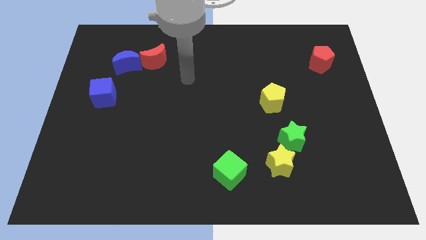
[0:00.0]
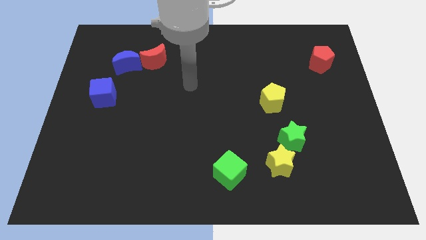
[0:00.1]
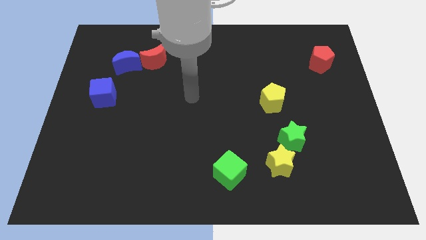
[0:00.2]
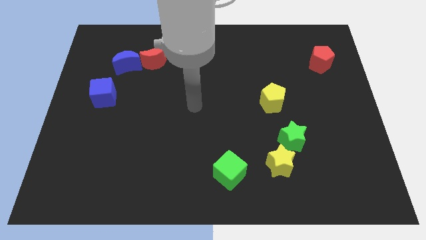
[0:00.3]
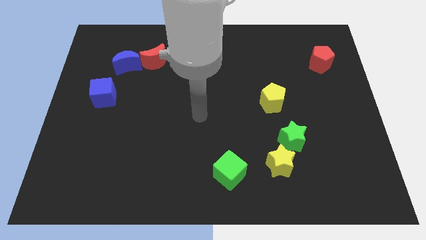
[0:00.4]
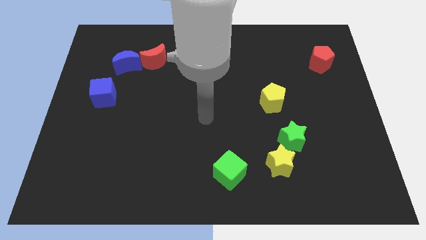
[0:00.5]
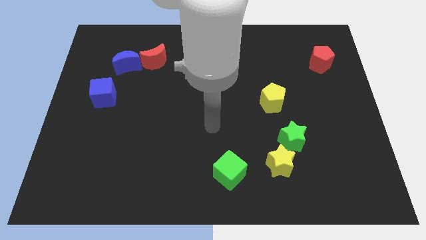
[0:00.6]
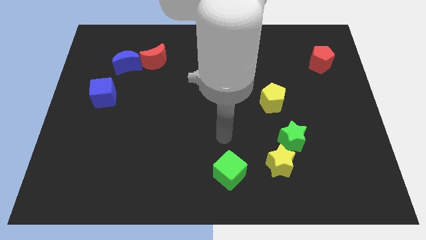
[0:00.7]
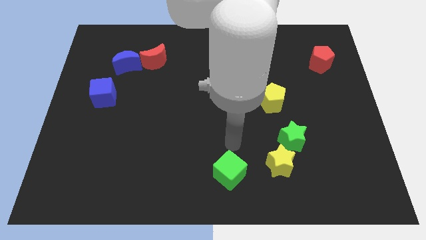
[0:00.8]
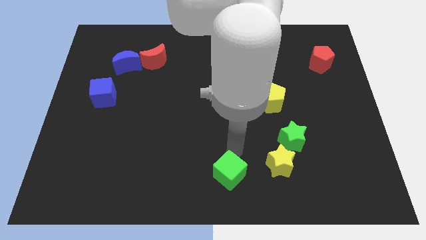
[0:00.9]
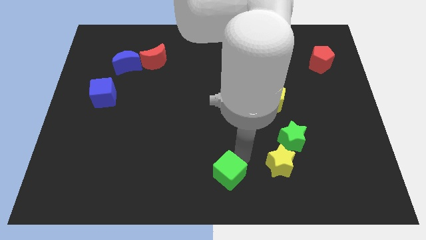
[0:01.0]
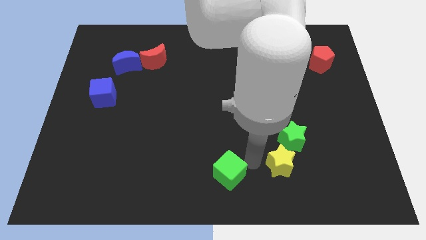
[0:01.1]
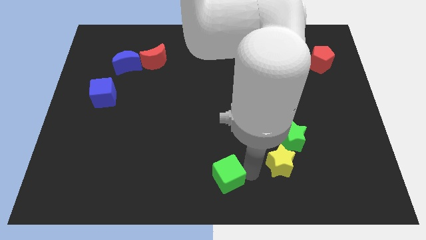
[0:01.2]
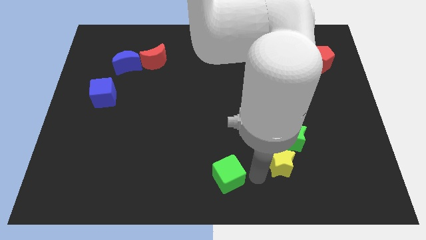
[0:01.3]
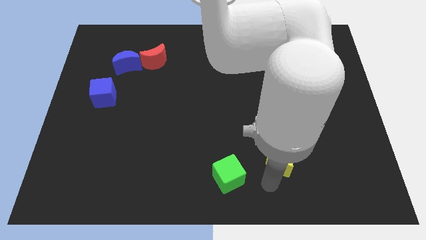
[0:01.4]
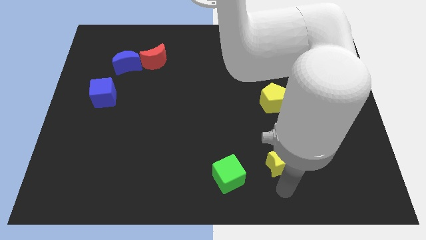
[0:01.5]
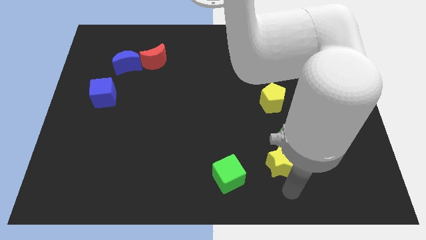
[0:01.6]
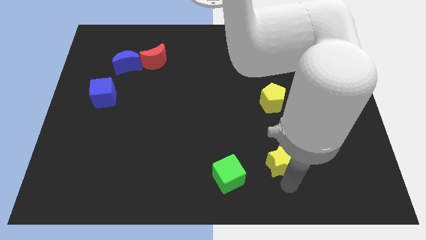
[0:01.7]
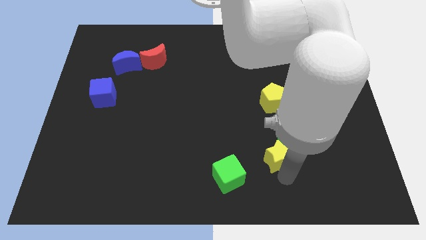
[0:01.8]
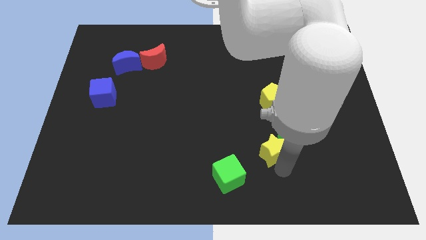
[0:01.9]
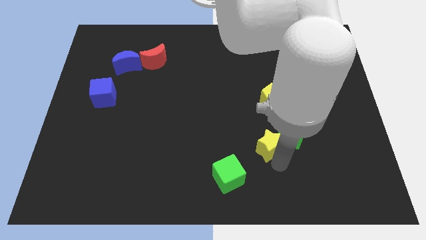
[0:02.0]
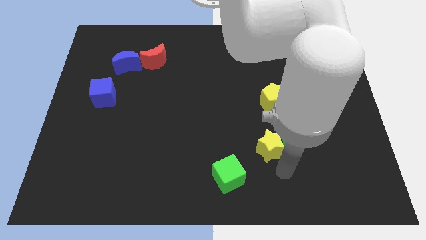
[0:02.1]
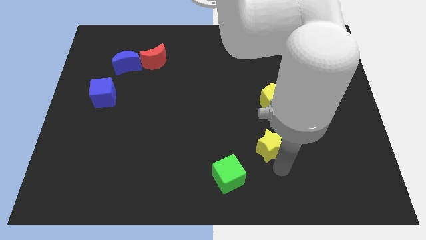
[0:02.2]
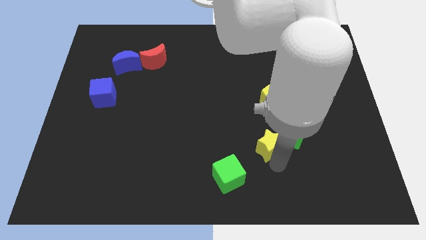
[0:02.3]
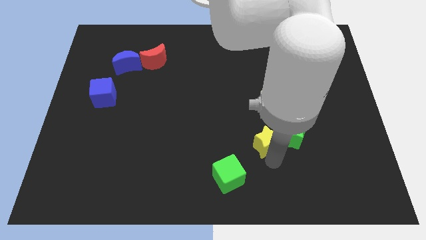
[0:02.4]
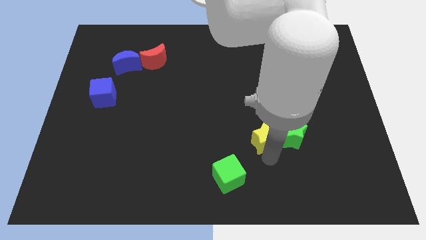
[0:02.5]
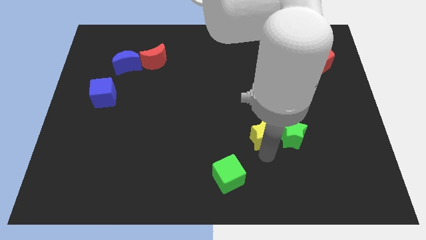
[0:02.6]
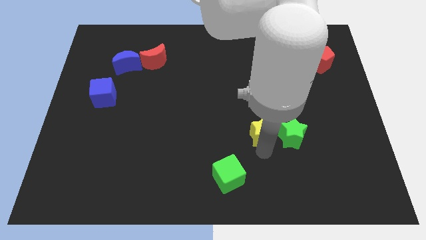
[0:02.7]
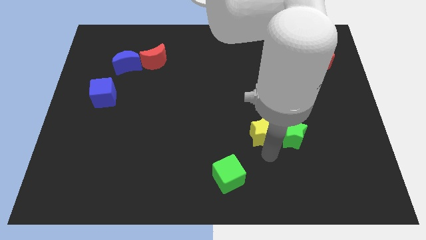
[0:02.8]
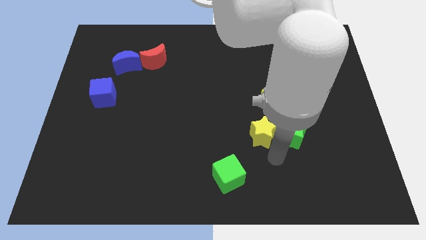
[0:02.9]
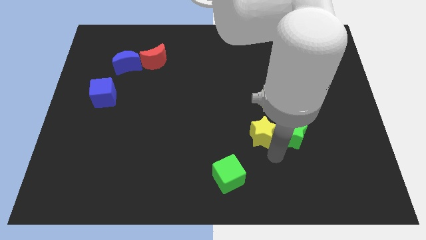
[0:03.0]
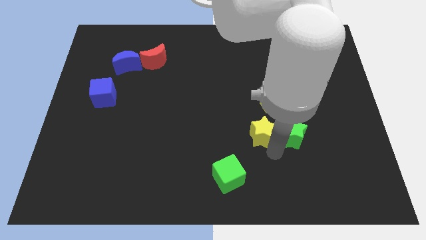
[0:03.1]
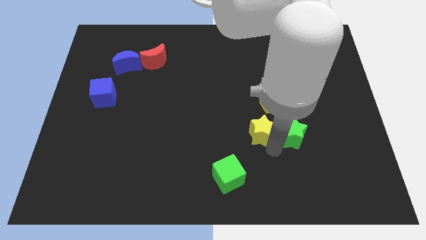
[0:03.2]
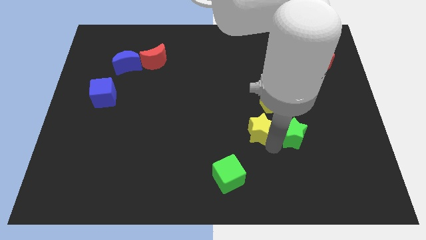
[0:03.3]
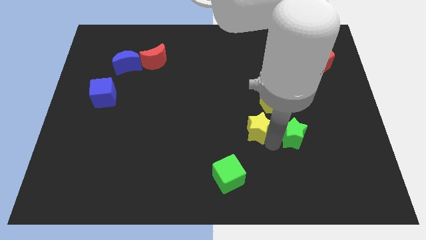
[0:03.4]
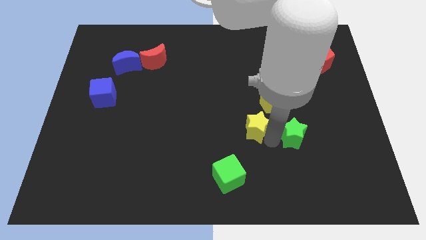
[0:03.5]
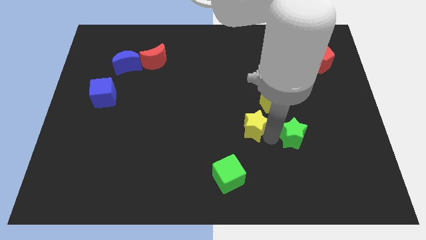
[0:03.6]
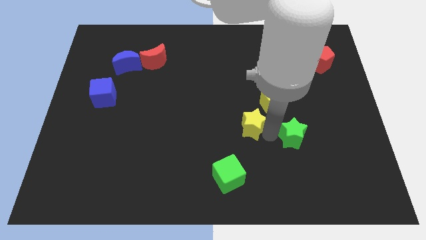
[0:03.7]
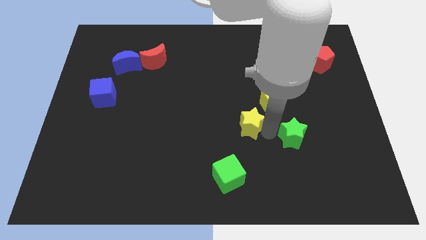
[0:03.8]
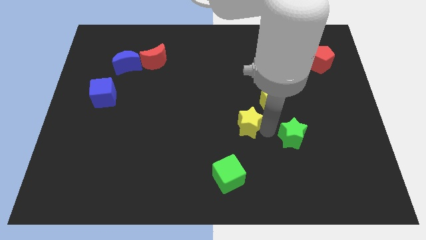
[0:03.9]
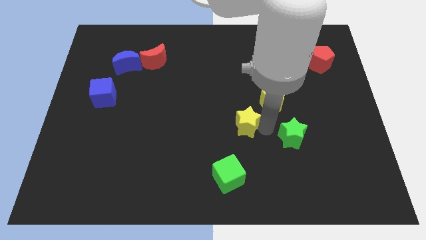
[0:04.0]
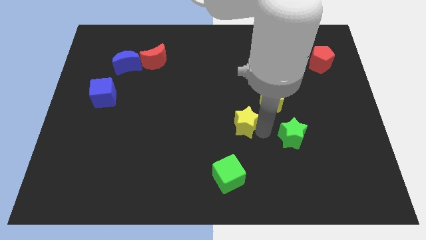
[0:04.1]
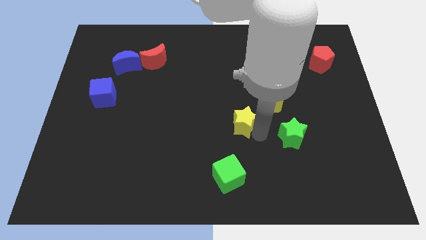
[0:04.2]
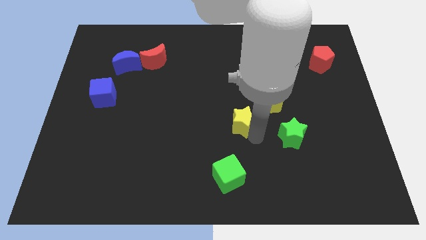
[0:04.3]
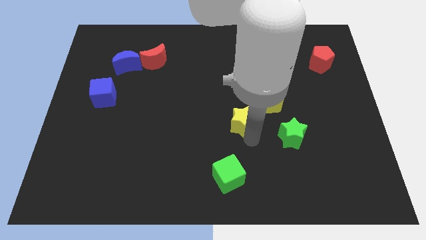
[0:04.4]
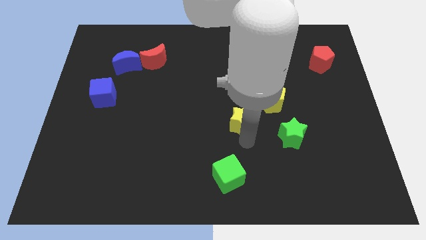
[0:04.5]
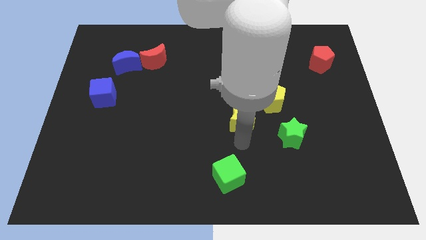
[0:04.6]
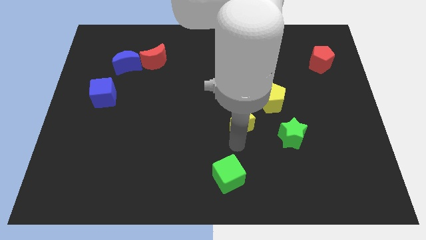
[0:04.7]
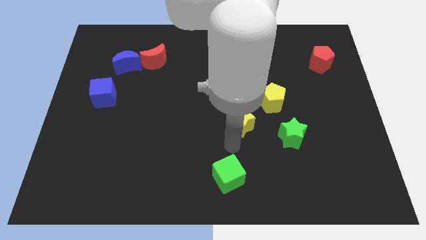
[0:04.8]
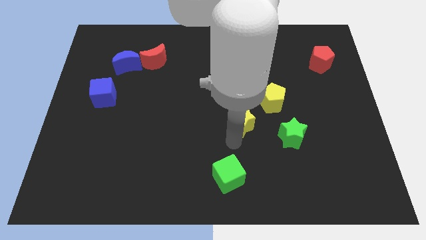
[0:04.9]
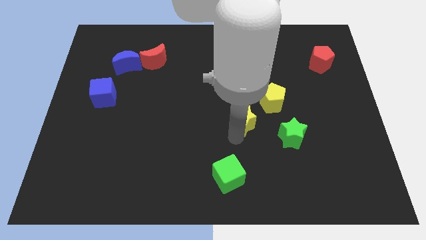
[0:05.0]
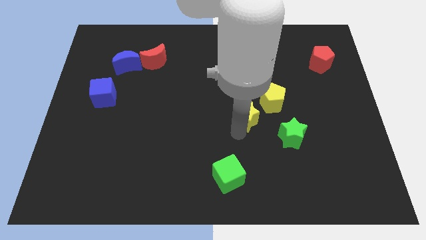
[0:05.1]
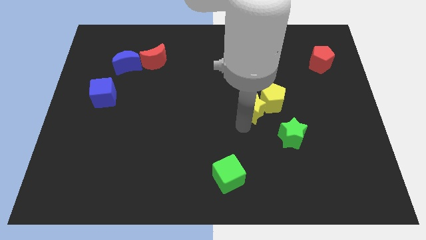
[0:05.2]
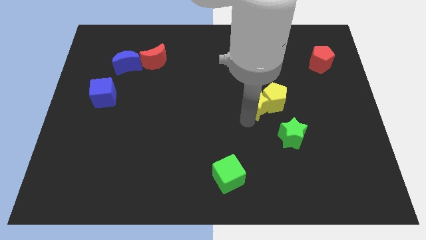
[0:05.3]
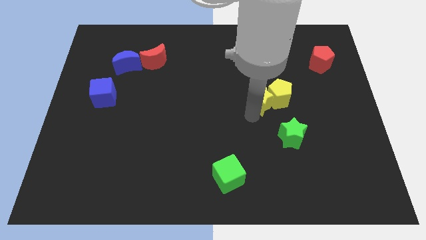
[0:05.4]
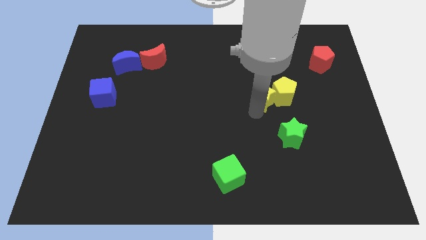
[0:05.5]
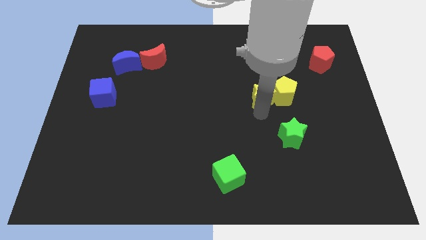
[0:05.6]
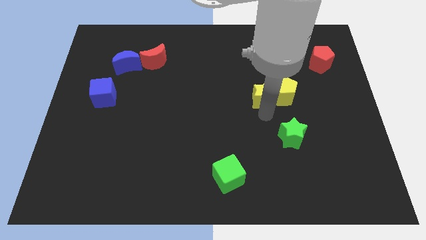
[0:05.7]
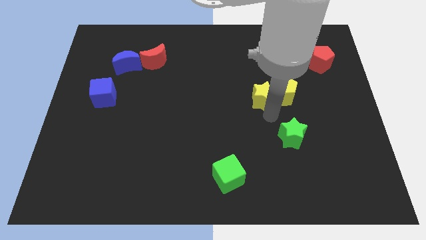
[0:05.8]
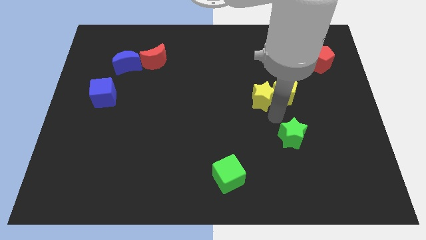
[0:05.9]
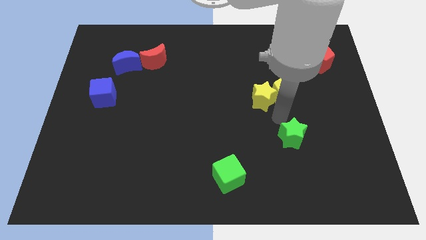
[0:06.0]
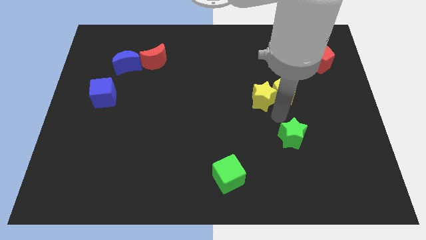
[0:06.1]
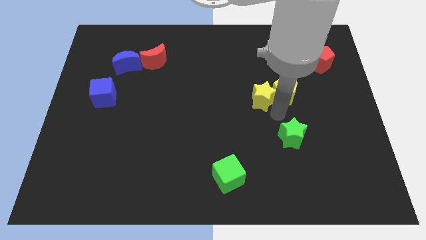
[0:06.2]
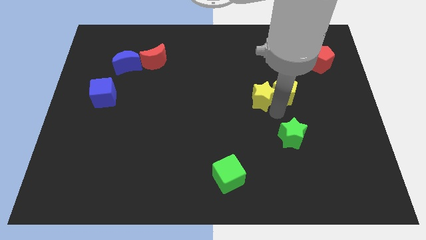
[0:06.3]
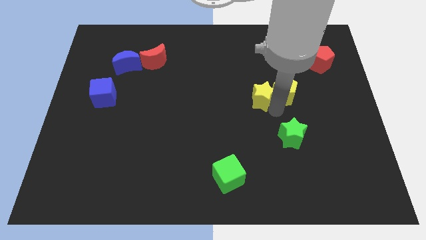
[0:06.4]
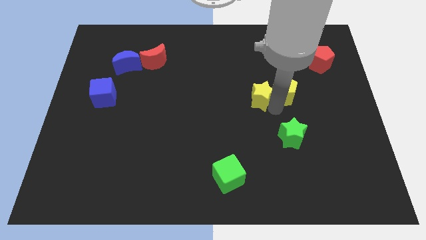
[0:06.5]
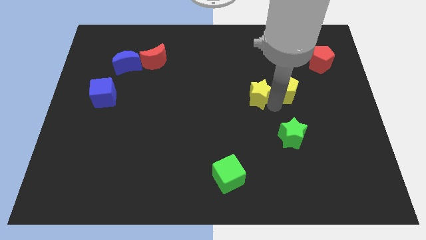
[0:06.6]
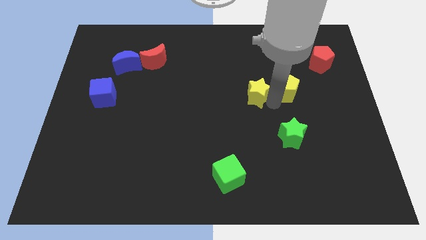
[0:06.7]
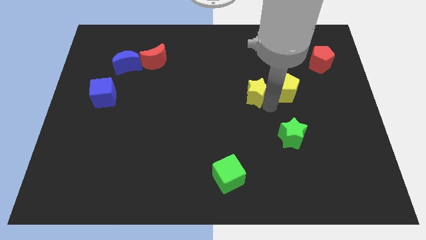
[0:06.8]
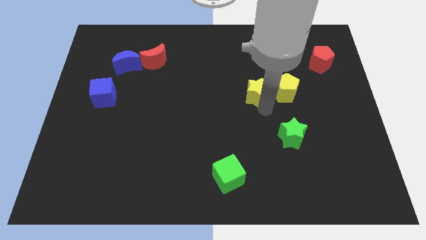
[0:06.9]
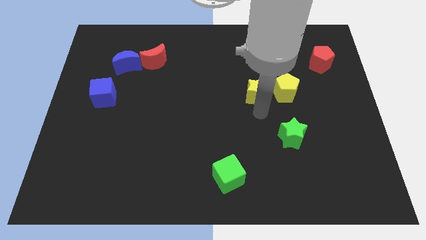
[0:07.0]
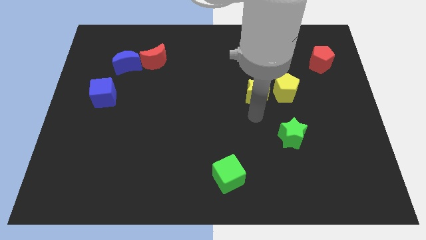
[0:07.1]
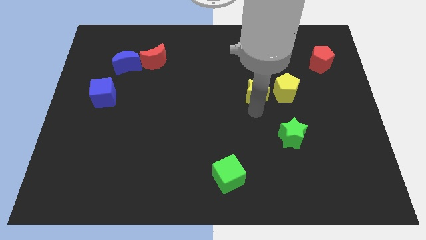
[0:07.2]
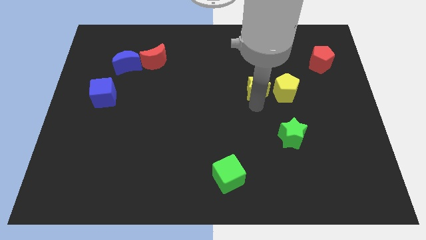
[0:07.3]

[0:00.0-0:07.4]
slide the yellow star upwards

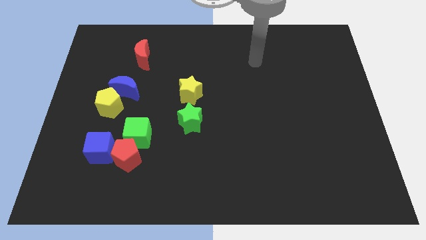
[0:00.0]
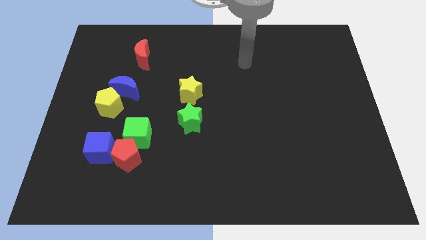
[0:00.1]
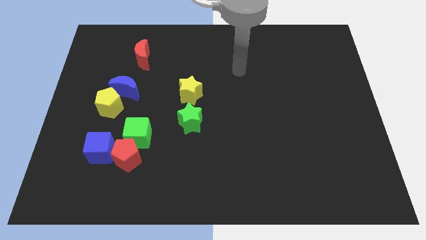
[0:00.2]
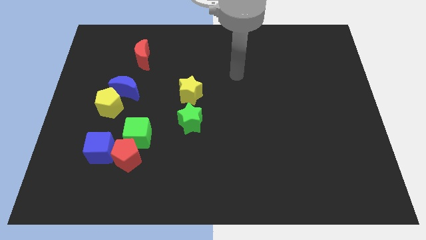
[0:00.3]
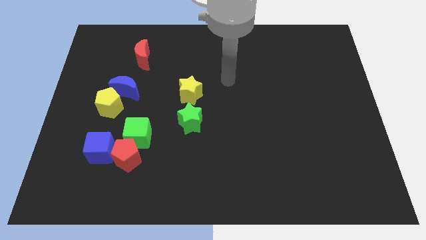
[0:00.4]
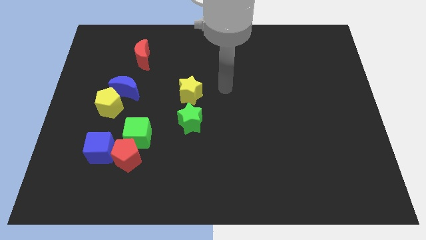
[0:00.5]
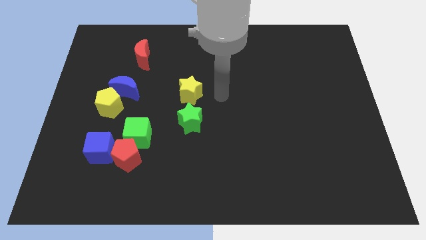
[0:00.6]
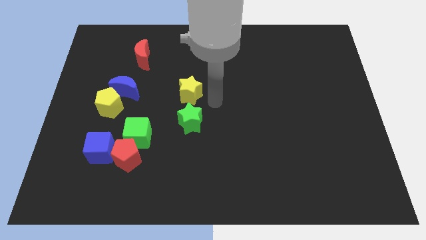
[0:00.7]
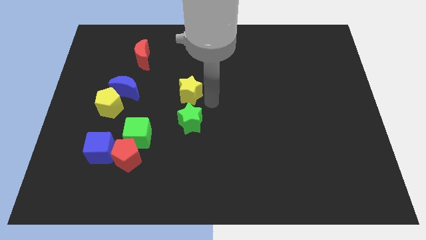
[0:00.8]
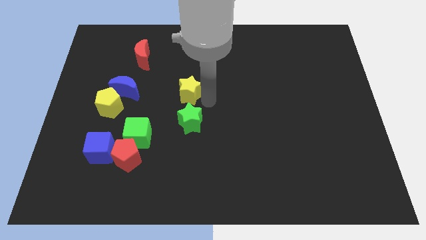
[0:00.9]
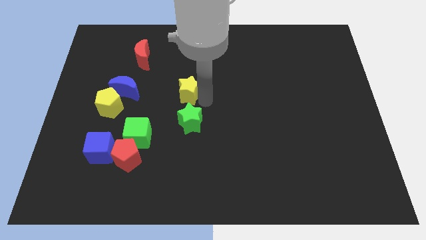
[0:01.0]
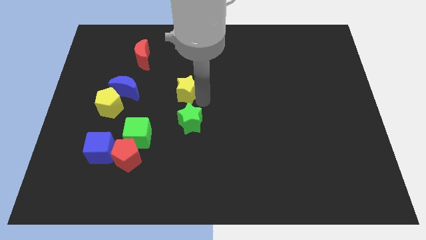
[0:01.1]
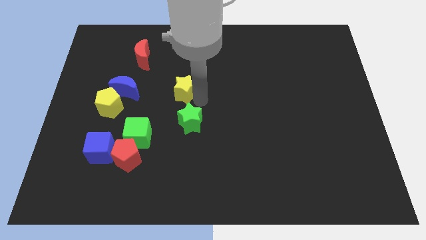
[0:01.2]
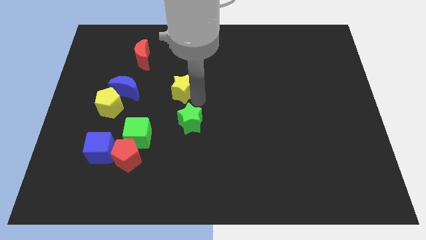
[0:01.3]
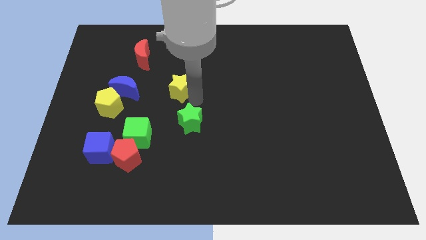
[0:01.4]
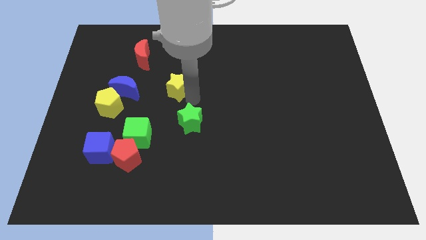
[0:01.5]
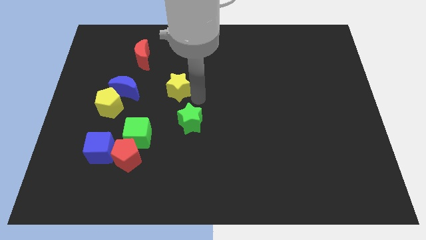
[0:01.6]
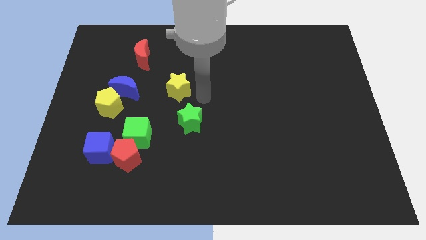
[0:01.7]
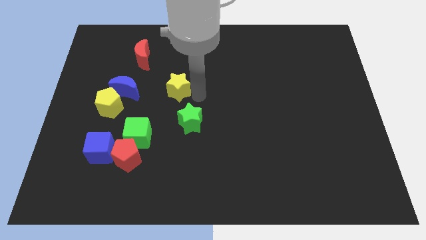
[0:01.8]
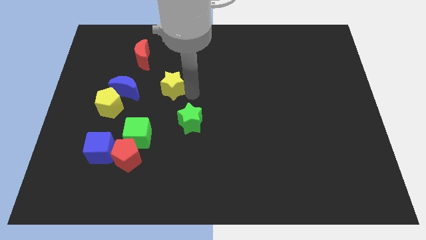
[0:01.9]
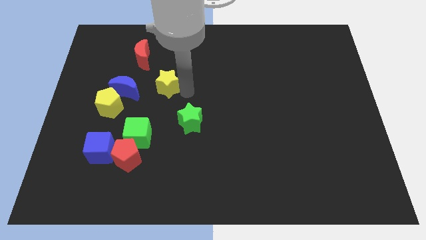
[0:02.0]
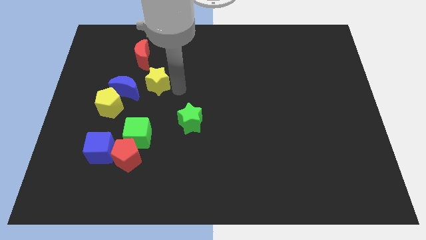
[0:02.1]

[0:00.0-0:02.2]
slide the yellow star a little to the left
